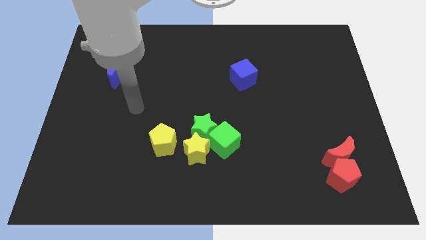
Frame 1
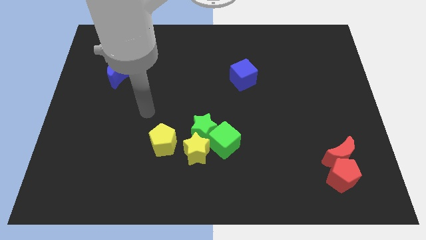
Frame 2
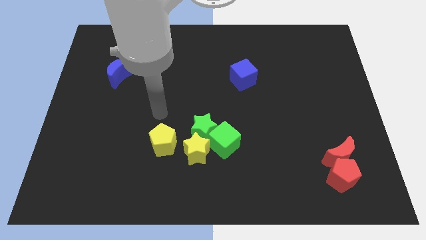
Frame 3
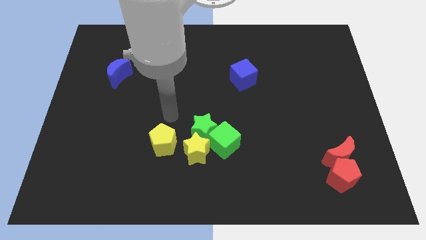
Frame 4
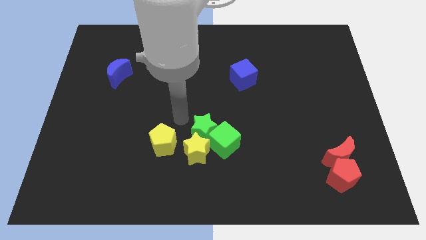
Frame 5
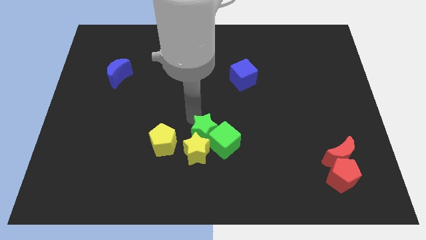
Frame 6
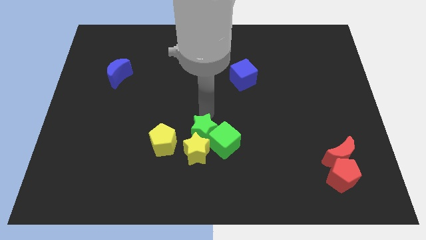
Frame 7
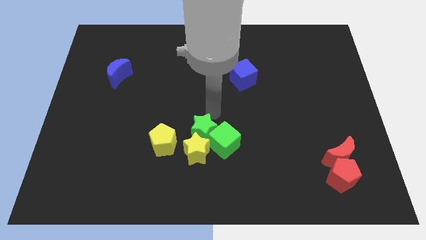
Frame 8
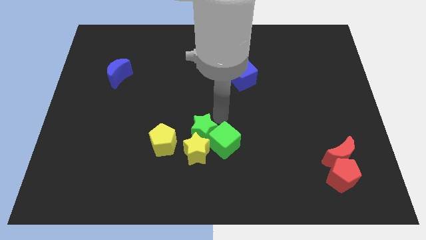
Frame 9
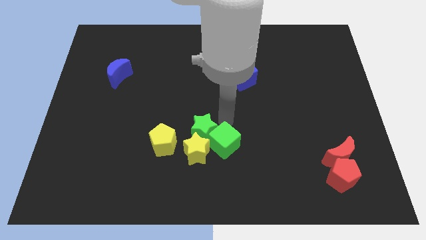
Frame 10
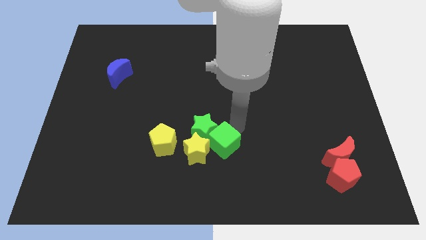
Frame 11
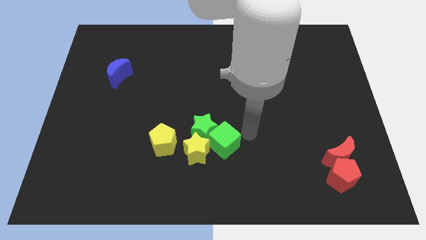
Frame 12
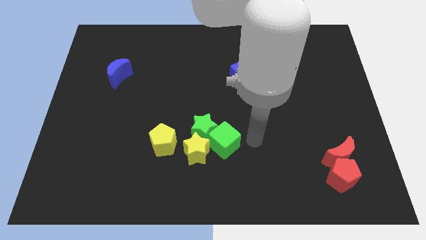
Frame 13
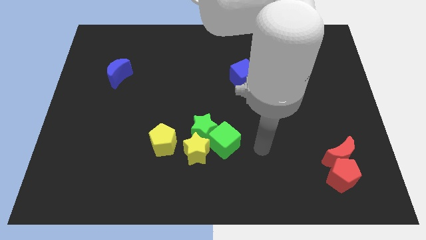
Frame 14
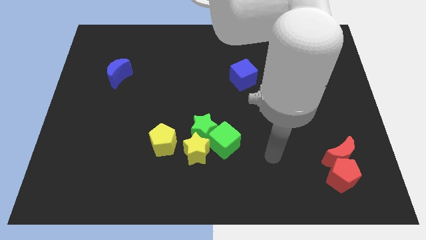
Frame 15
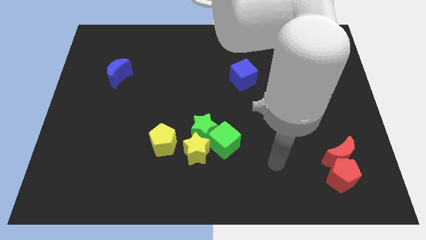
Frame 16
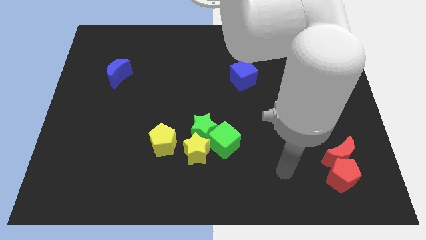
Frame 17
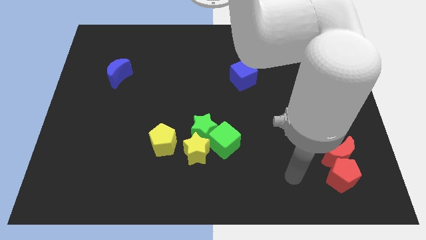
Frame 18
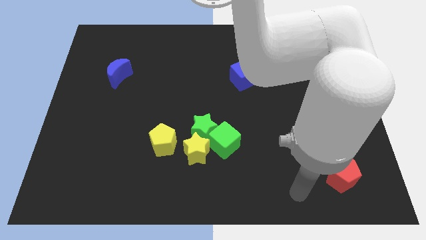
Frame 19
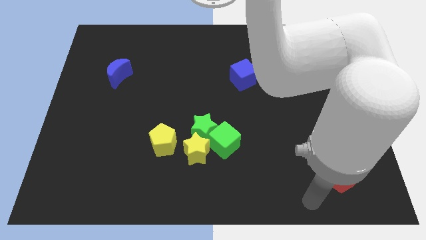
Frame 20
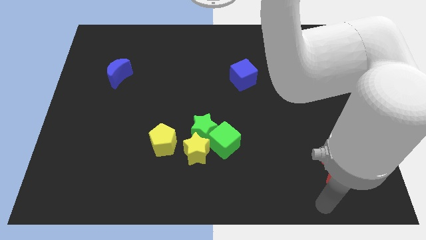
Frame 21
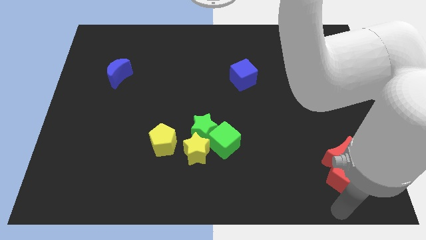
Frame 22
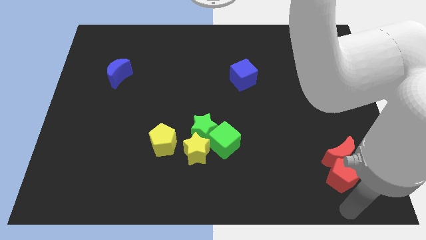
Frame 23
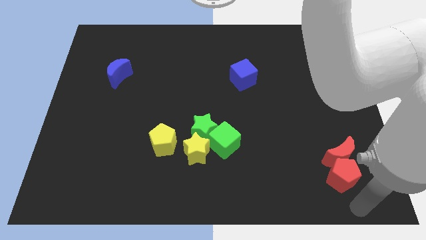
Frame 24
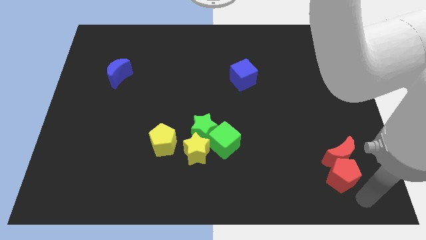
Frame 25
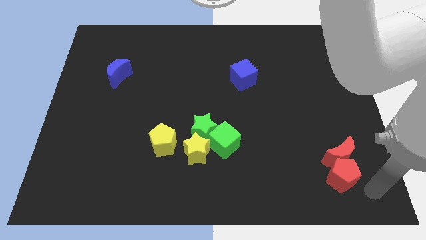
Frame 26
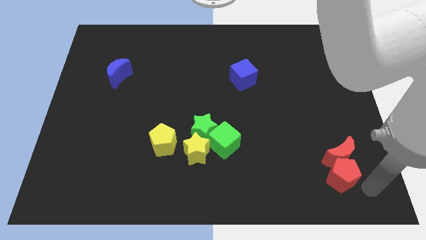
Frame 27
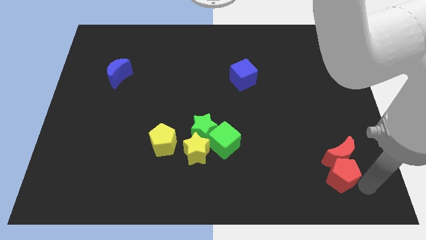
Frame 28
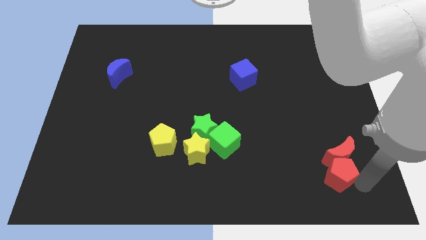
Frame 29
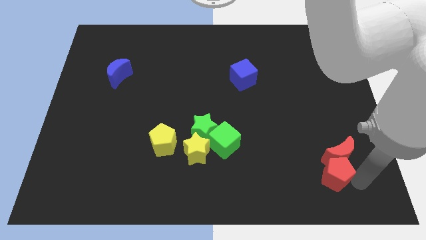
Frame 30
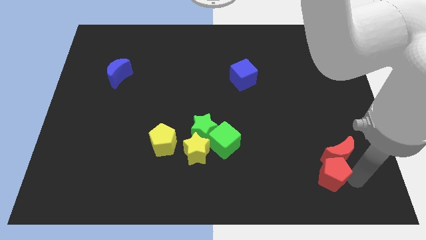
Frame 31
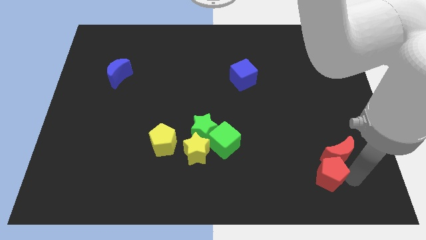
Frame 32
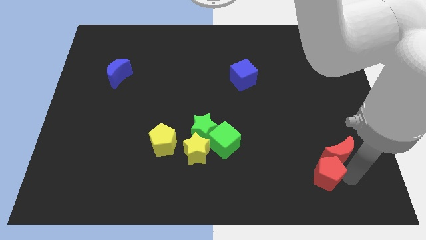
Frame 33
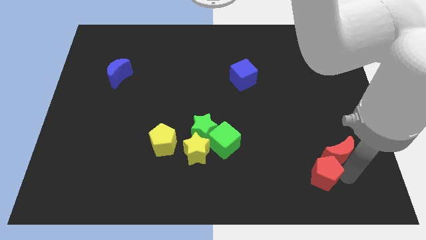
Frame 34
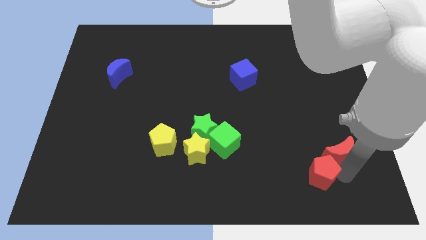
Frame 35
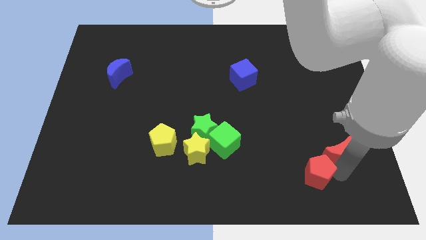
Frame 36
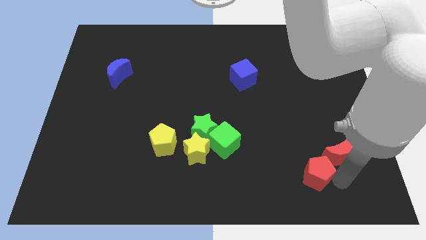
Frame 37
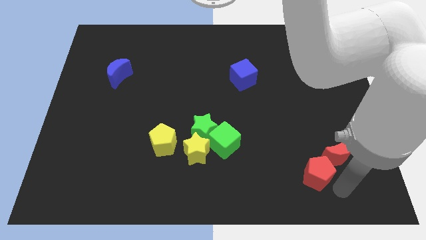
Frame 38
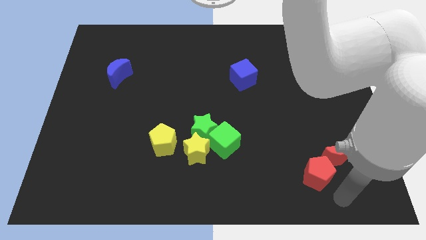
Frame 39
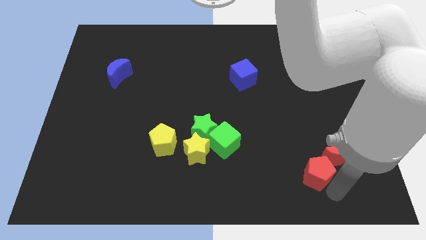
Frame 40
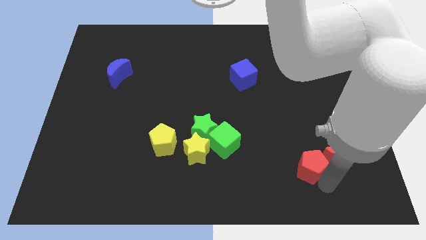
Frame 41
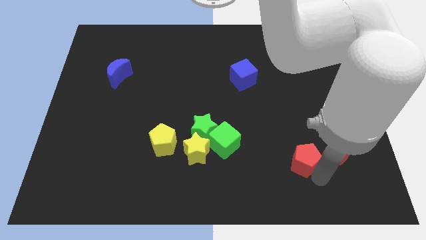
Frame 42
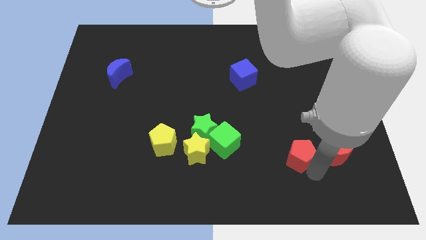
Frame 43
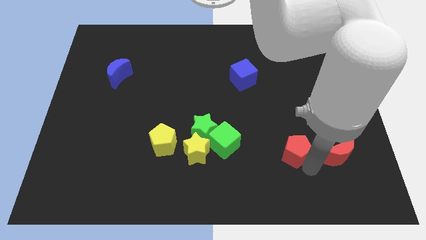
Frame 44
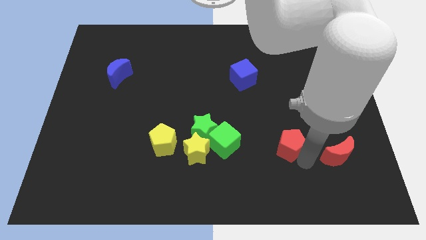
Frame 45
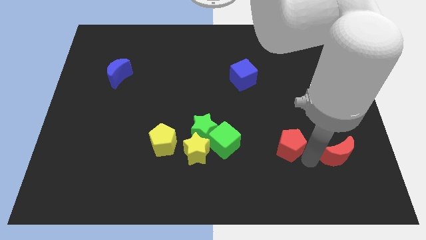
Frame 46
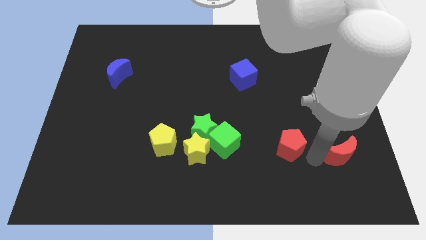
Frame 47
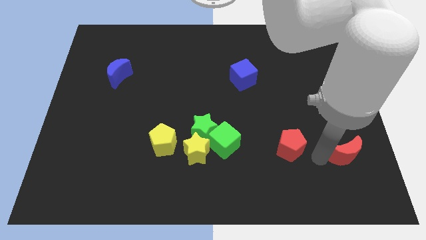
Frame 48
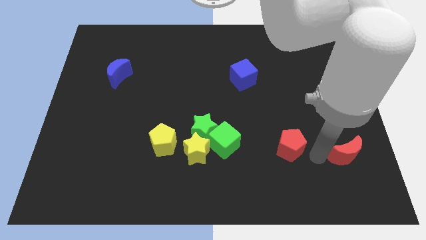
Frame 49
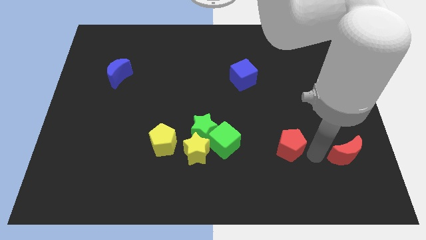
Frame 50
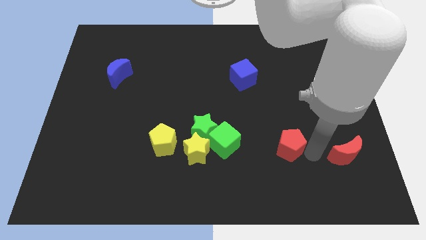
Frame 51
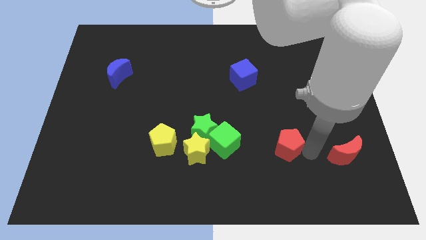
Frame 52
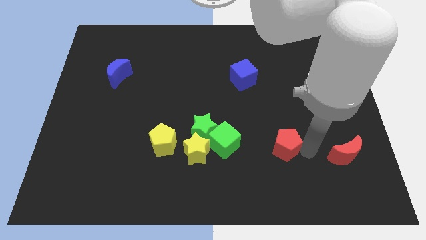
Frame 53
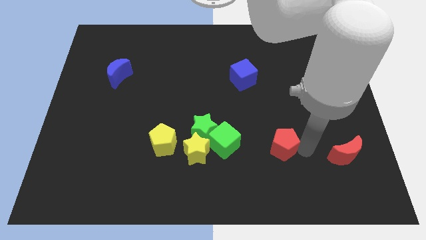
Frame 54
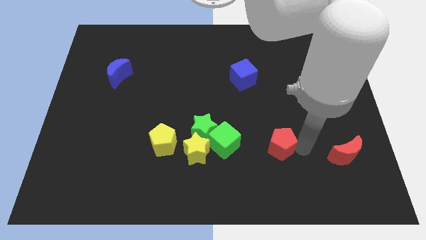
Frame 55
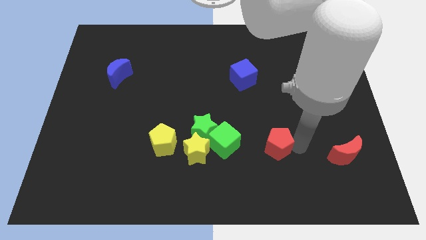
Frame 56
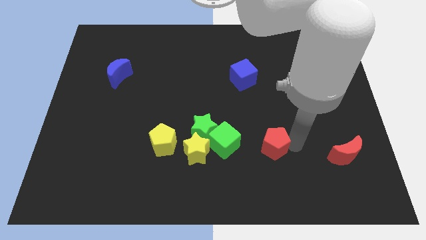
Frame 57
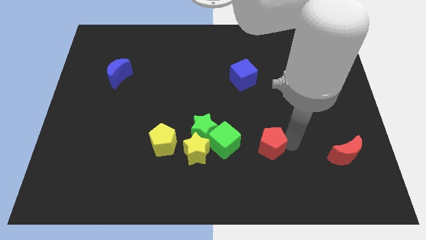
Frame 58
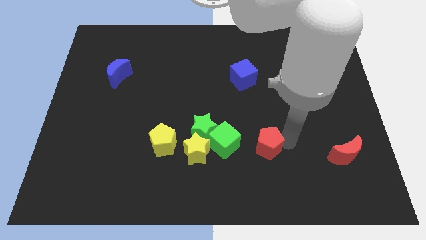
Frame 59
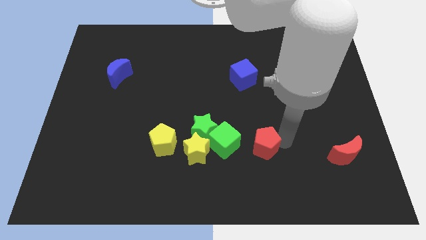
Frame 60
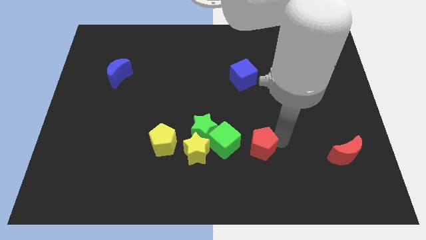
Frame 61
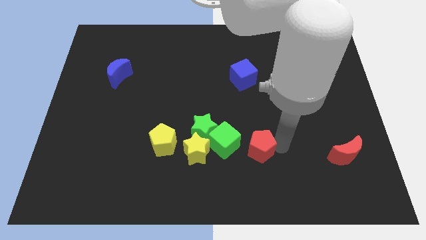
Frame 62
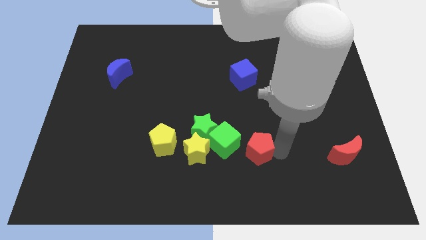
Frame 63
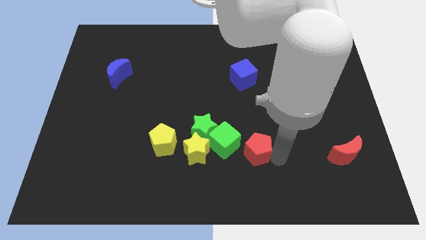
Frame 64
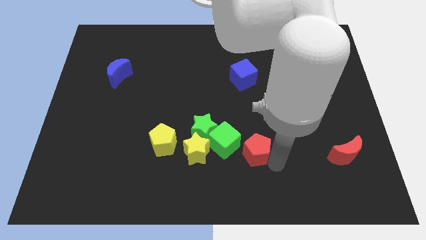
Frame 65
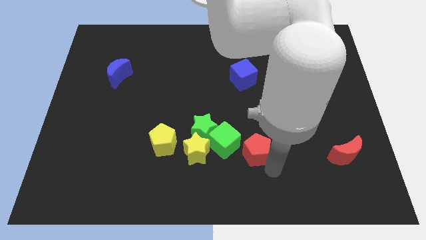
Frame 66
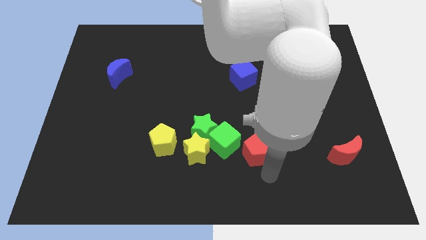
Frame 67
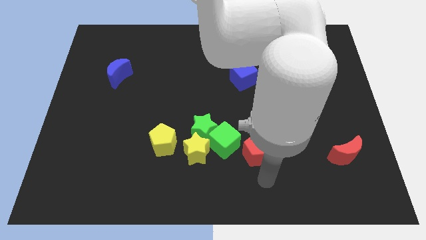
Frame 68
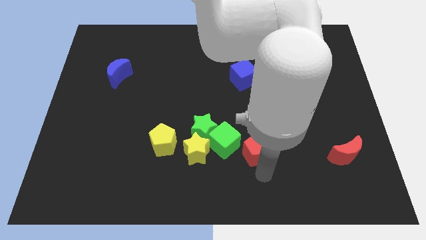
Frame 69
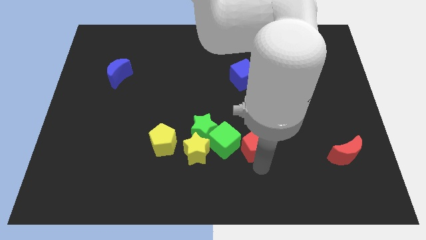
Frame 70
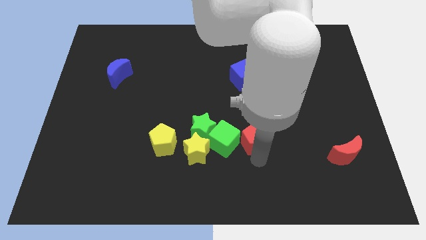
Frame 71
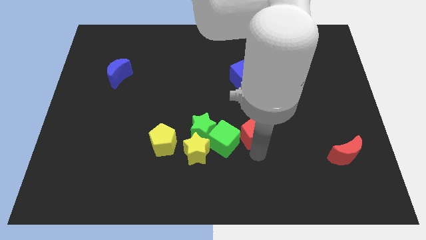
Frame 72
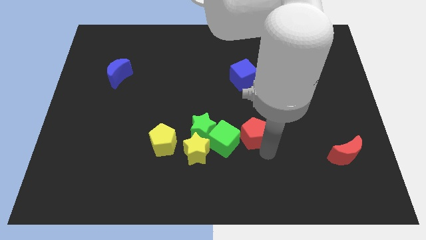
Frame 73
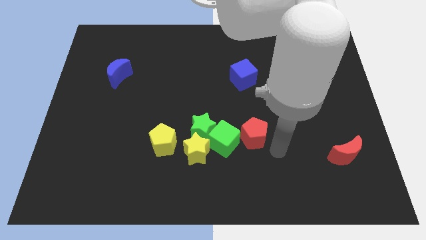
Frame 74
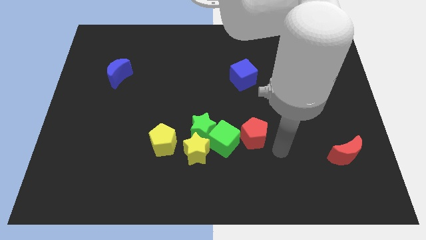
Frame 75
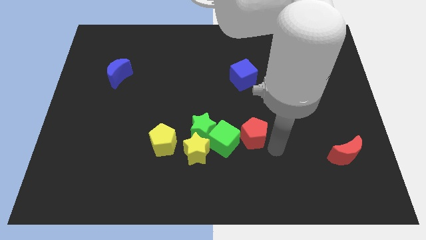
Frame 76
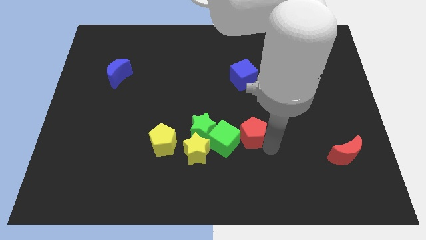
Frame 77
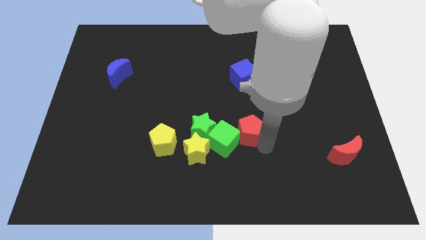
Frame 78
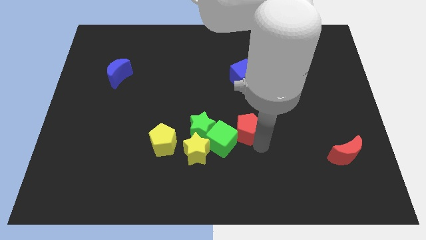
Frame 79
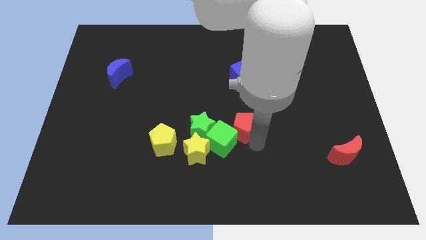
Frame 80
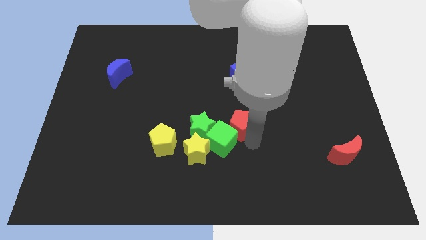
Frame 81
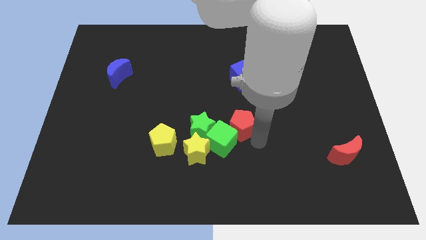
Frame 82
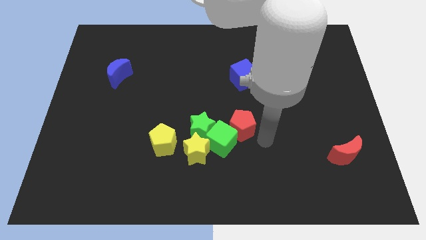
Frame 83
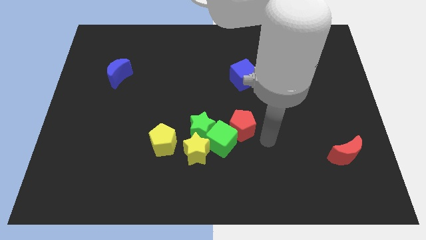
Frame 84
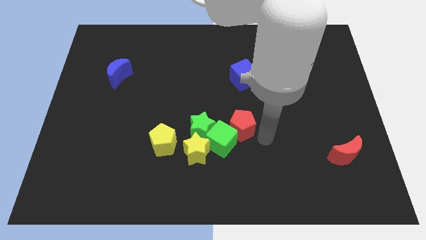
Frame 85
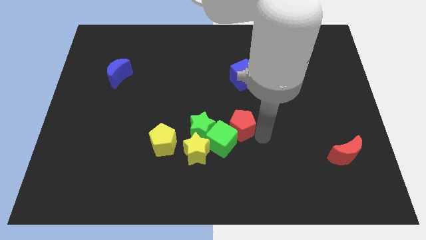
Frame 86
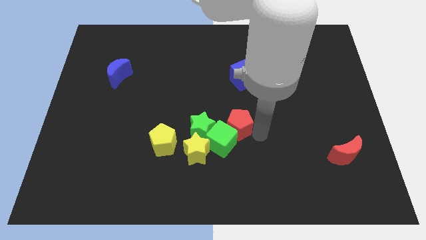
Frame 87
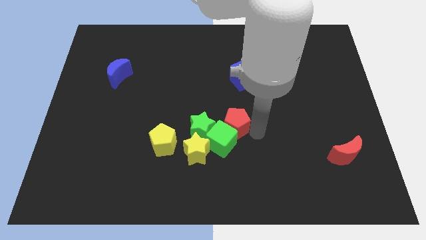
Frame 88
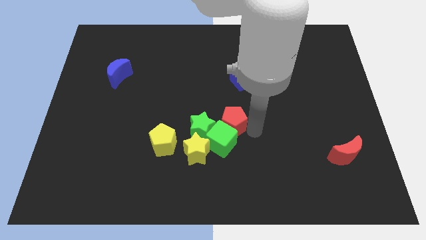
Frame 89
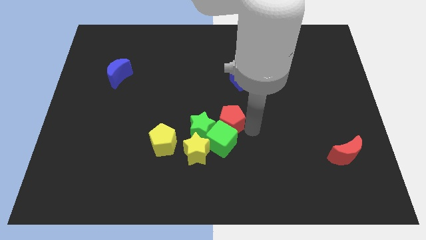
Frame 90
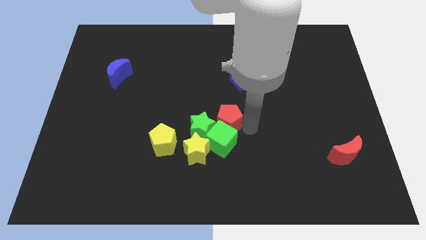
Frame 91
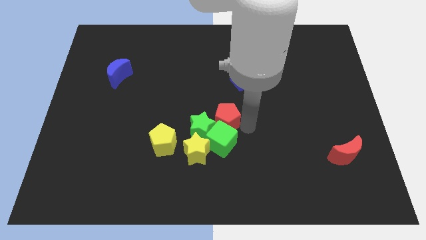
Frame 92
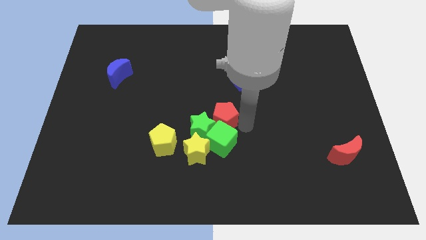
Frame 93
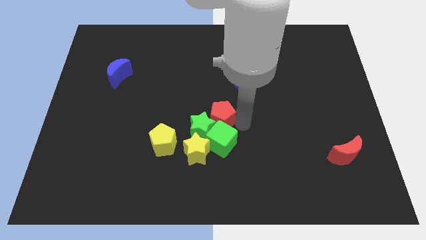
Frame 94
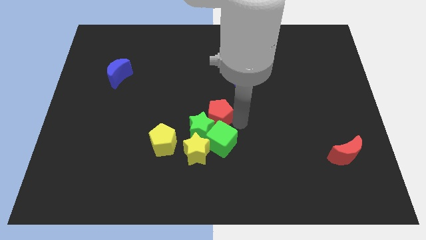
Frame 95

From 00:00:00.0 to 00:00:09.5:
slide the red pentagon above the yellow star
